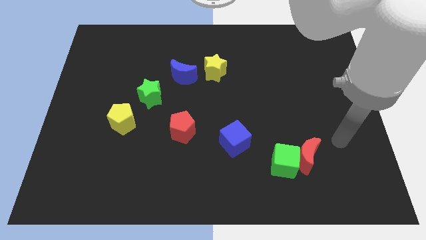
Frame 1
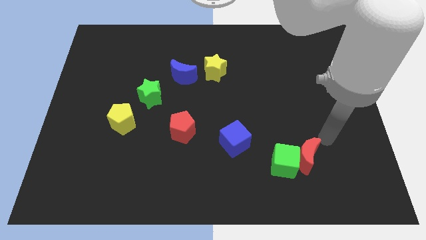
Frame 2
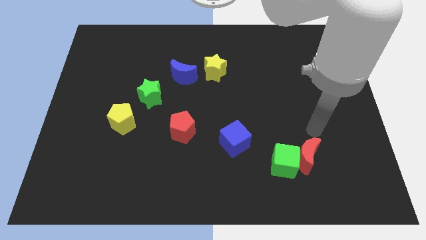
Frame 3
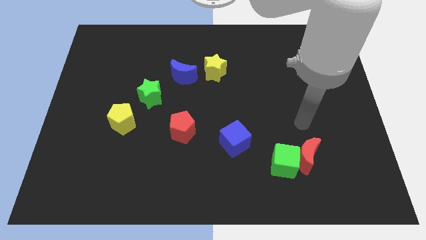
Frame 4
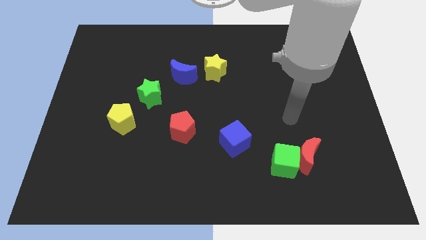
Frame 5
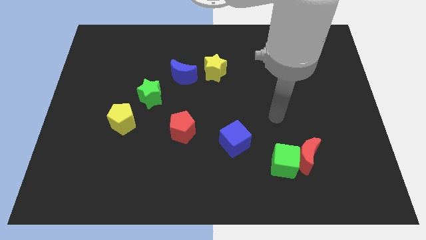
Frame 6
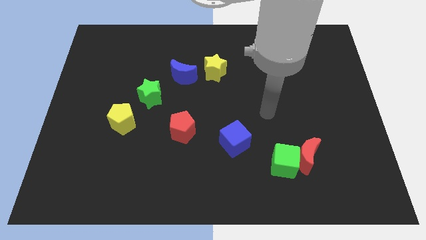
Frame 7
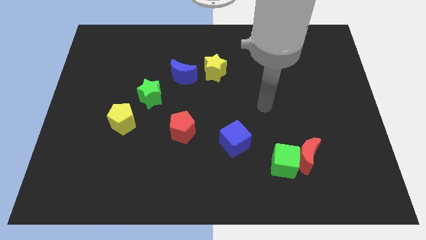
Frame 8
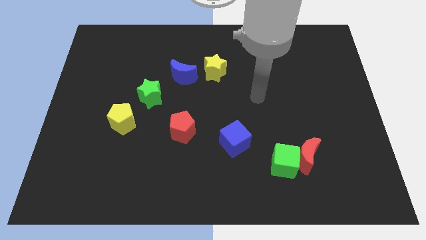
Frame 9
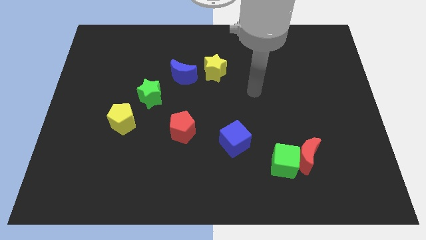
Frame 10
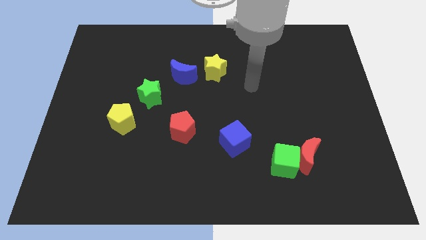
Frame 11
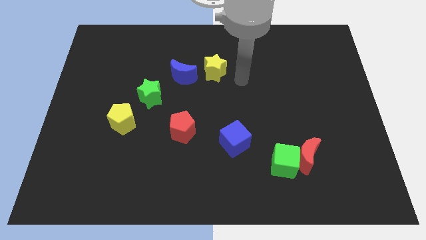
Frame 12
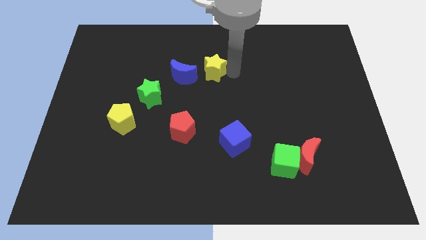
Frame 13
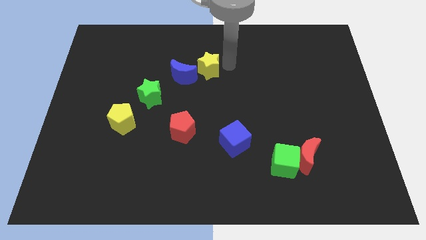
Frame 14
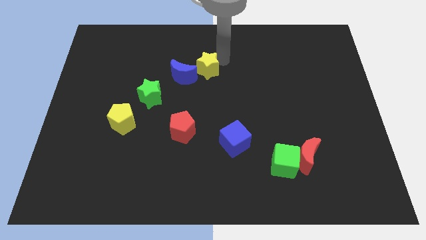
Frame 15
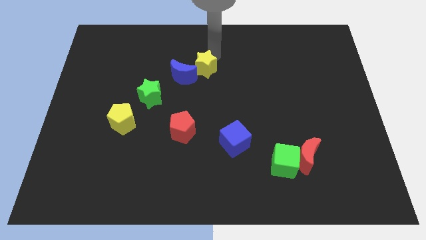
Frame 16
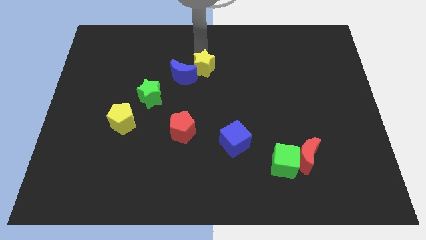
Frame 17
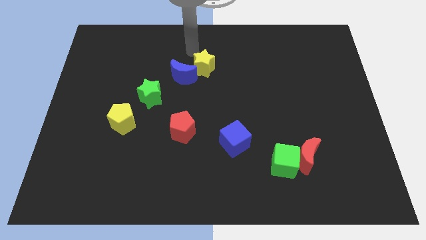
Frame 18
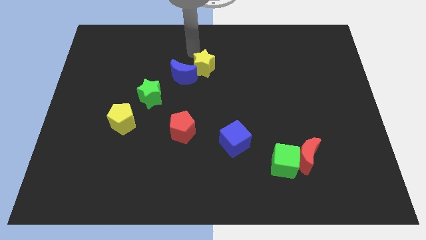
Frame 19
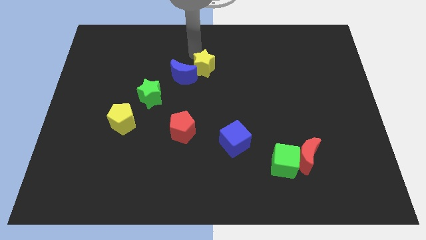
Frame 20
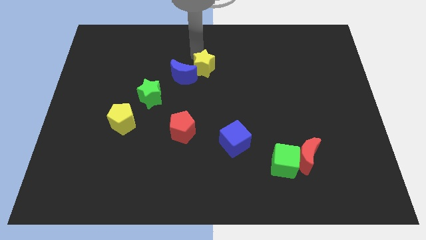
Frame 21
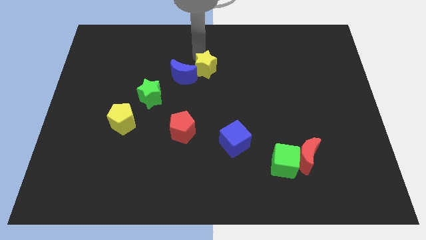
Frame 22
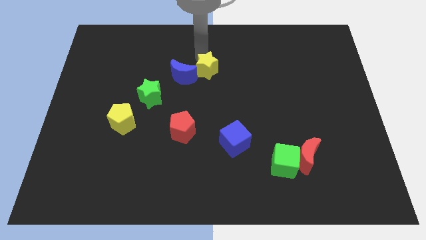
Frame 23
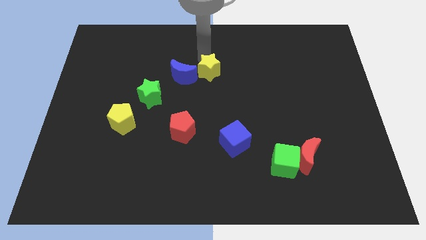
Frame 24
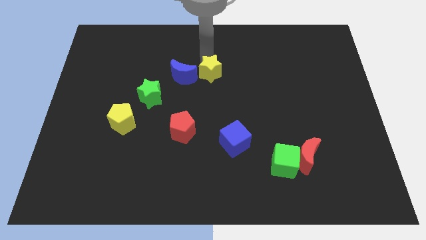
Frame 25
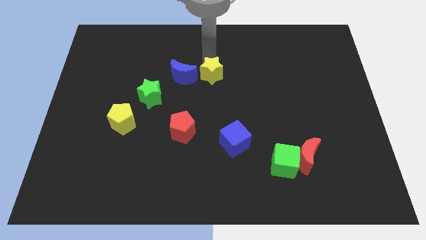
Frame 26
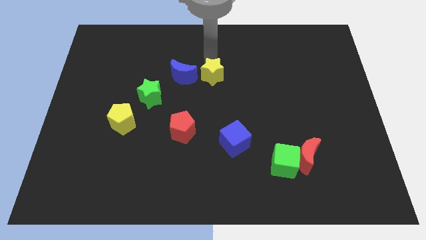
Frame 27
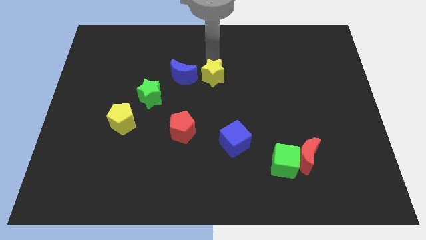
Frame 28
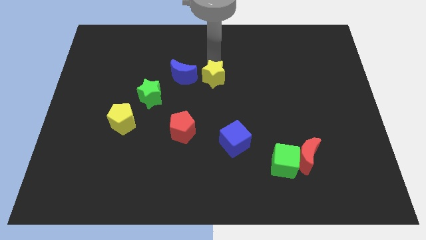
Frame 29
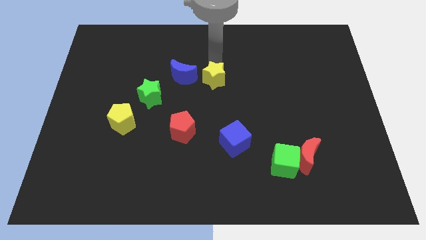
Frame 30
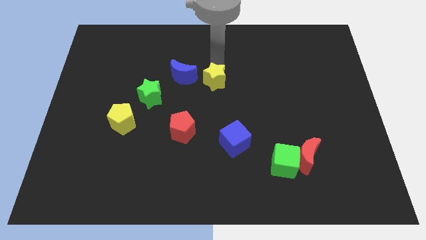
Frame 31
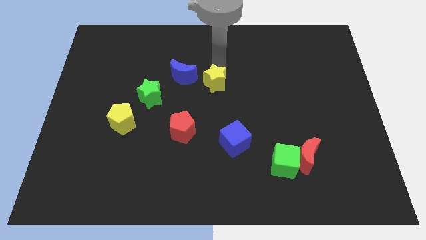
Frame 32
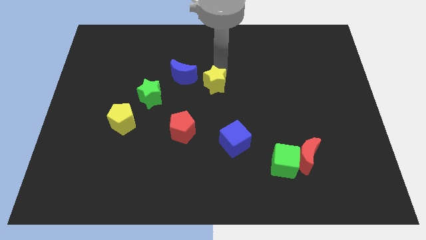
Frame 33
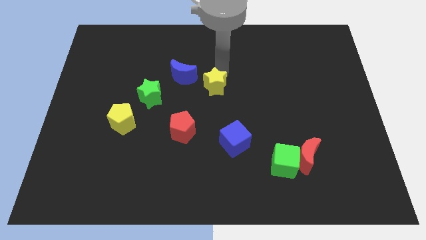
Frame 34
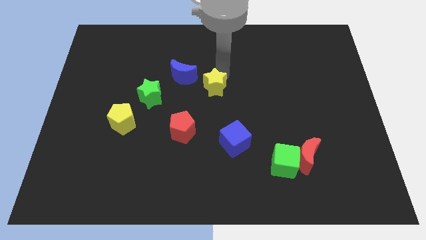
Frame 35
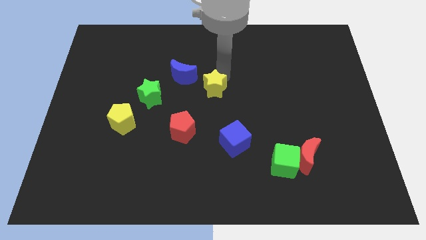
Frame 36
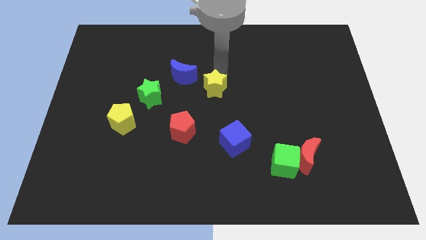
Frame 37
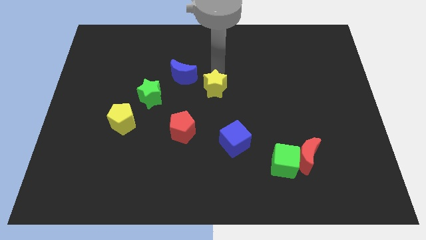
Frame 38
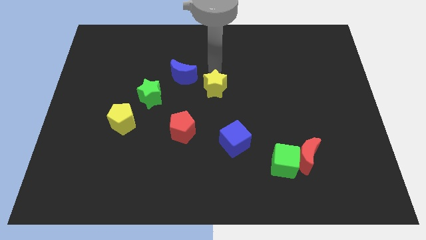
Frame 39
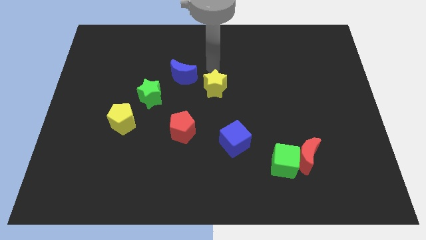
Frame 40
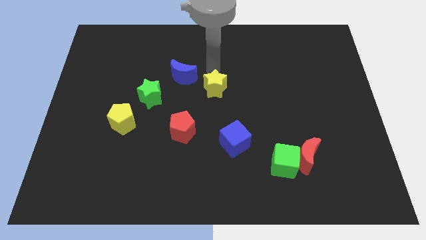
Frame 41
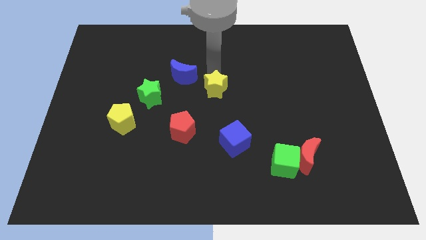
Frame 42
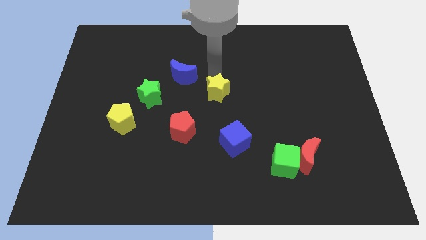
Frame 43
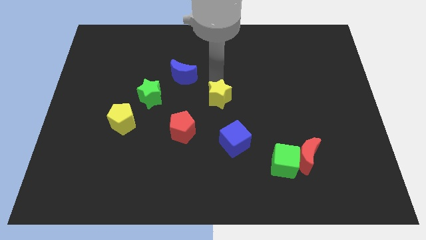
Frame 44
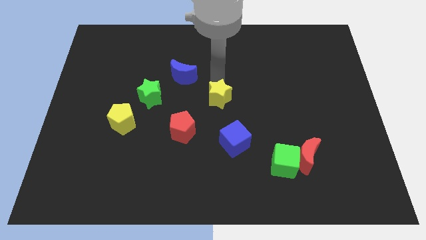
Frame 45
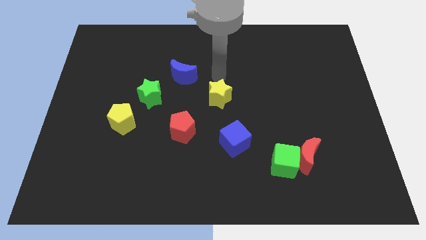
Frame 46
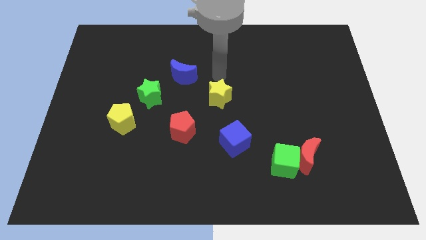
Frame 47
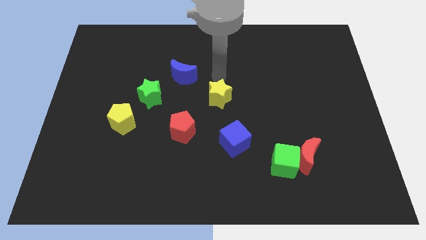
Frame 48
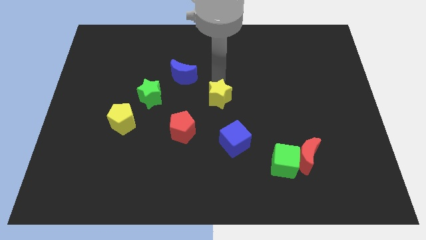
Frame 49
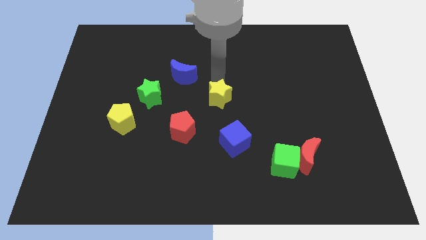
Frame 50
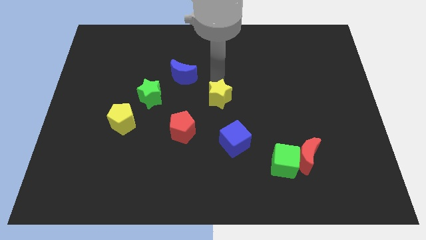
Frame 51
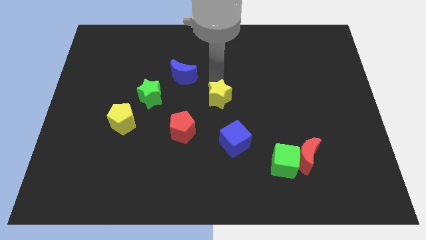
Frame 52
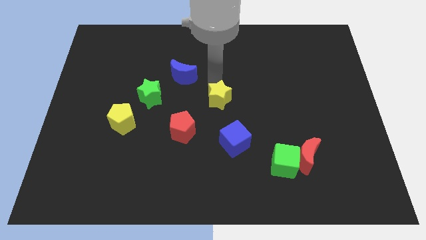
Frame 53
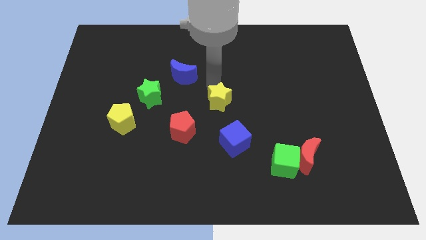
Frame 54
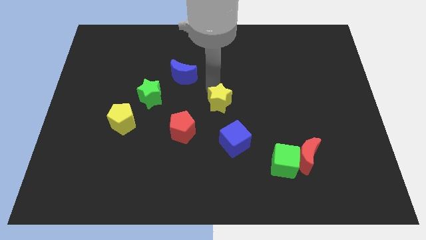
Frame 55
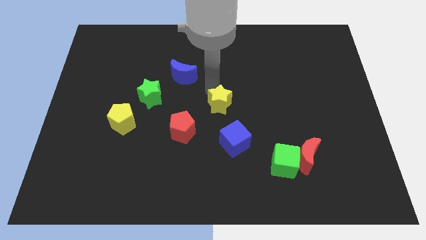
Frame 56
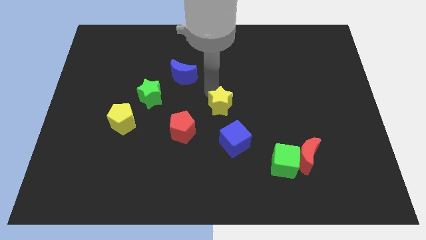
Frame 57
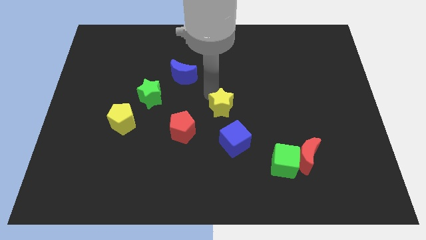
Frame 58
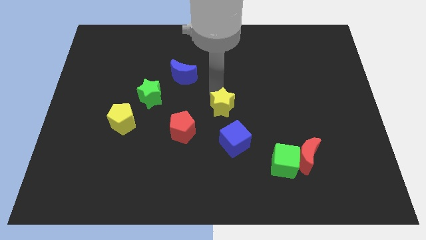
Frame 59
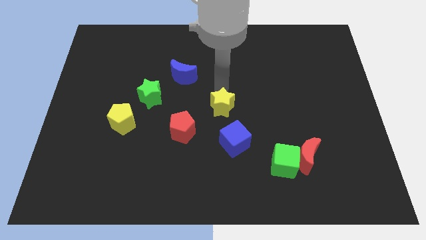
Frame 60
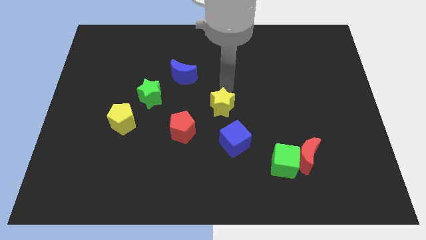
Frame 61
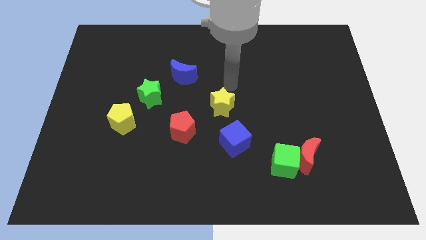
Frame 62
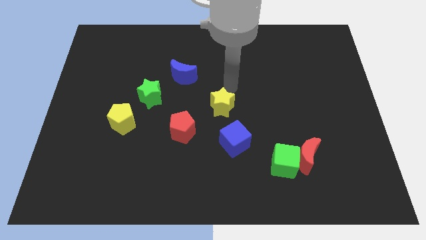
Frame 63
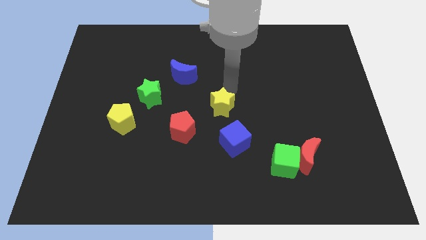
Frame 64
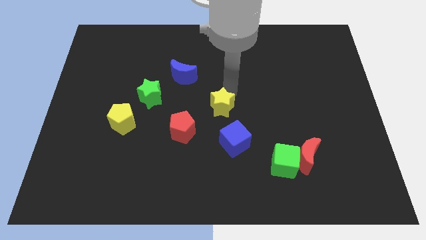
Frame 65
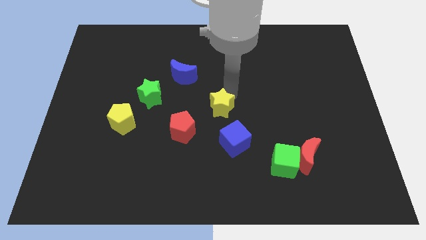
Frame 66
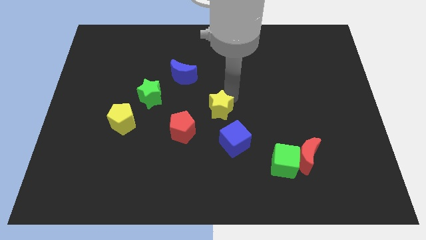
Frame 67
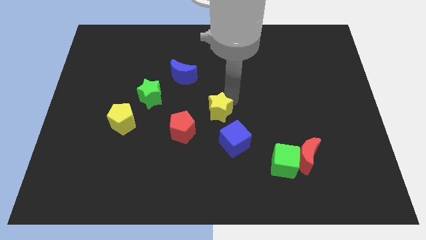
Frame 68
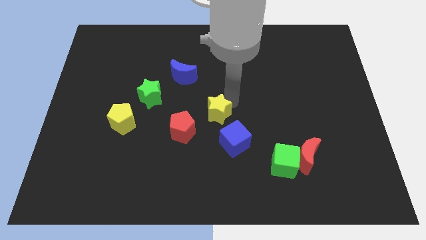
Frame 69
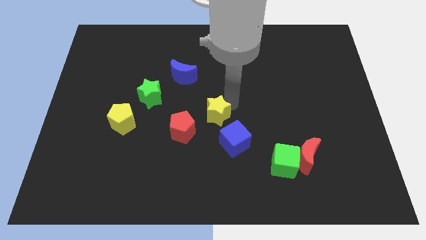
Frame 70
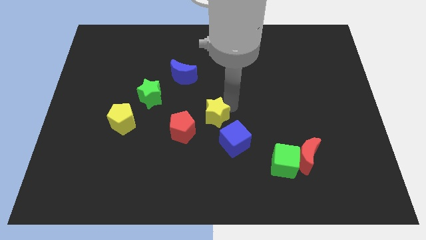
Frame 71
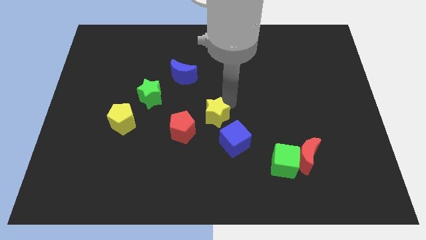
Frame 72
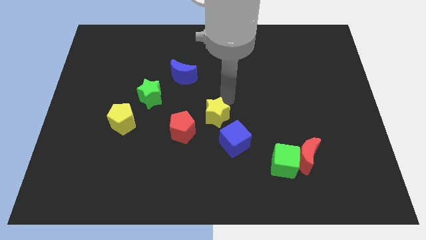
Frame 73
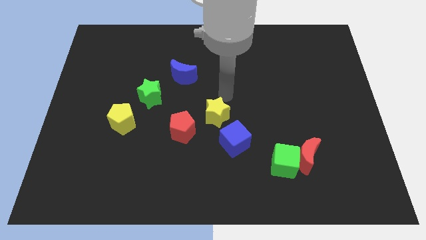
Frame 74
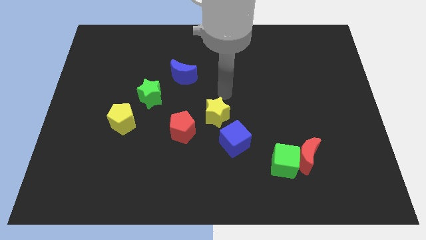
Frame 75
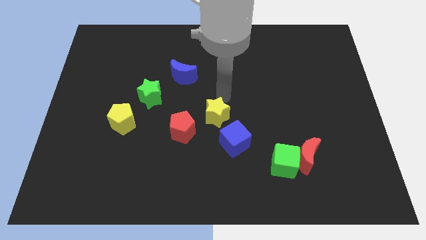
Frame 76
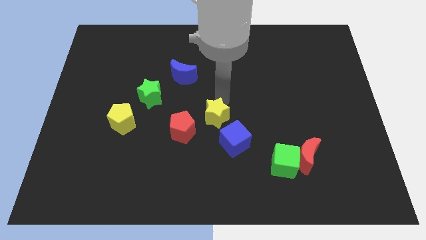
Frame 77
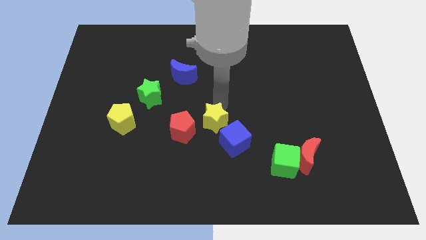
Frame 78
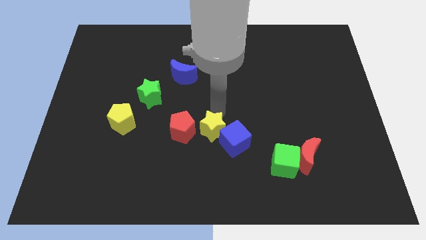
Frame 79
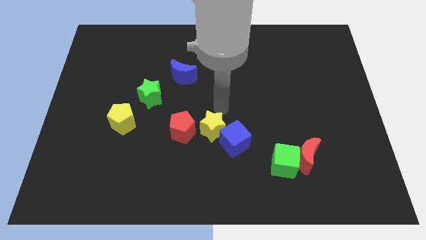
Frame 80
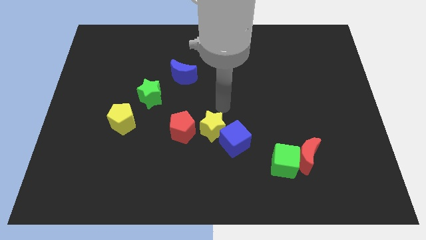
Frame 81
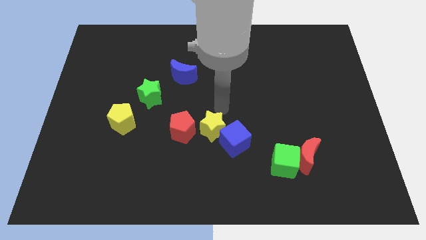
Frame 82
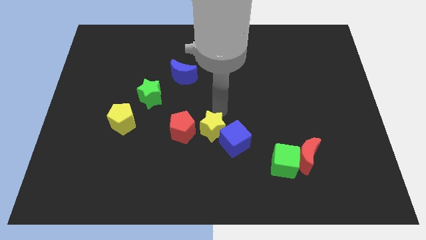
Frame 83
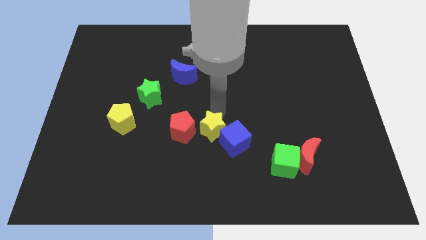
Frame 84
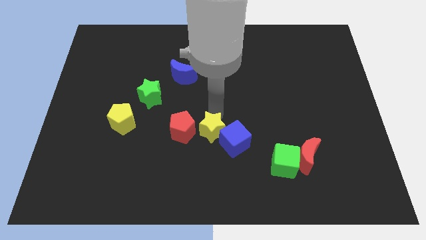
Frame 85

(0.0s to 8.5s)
slide the yellow star to the bottom right side of the red pentagon
